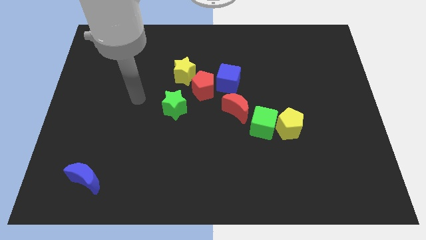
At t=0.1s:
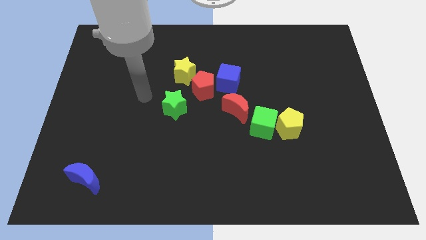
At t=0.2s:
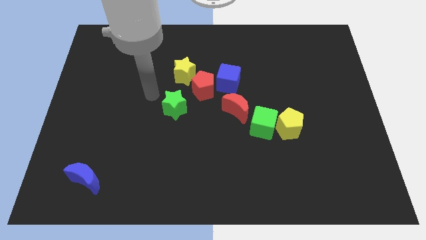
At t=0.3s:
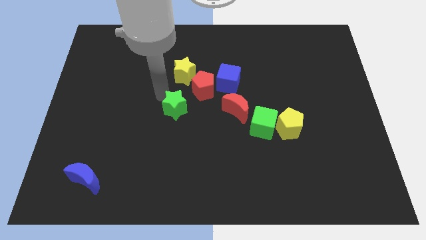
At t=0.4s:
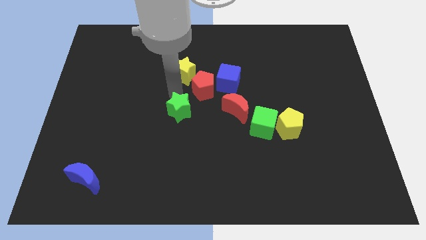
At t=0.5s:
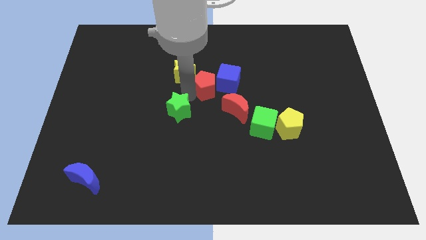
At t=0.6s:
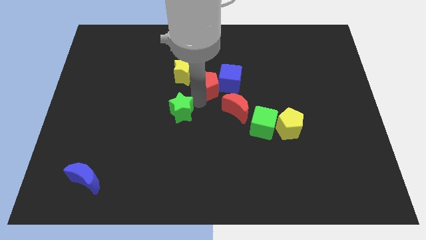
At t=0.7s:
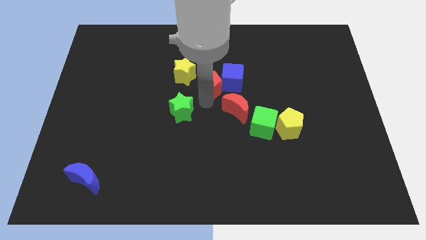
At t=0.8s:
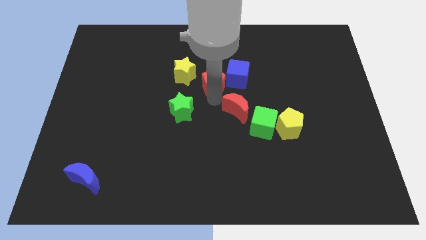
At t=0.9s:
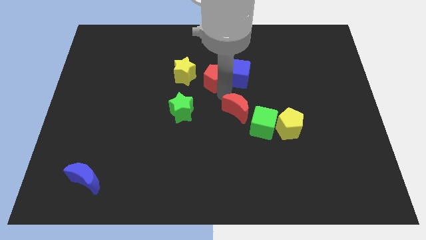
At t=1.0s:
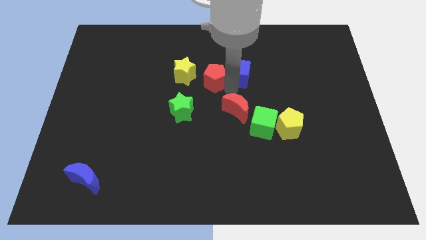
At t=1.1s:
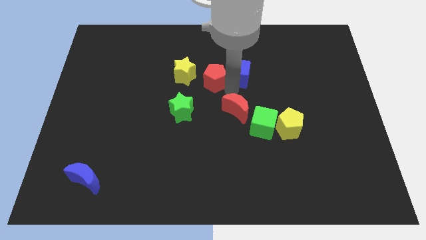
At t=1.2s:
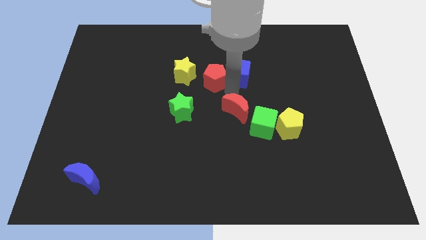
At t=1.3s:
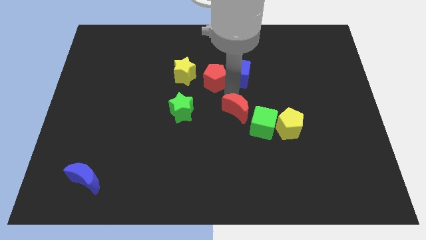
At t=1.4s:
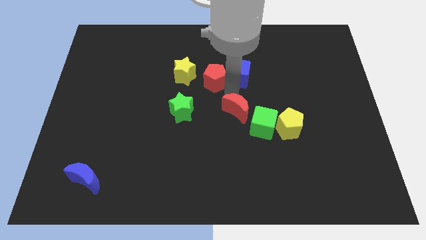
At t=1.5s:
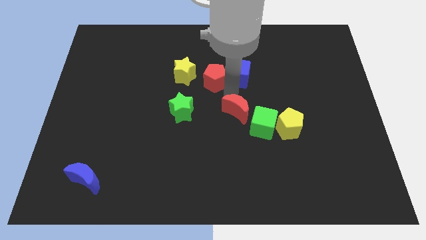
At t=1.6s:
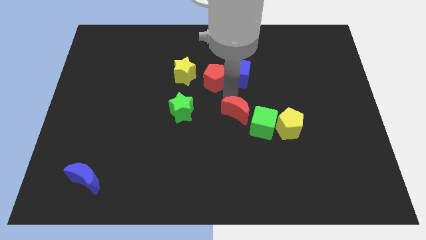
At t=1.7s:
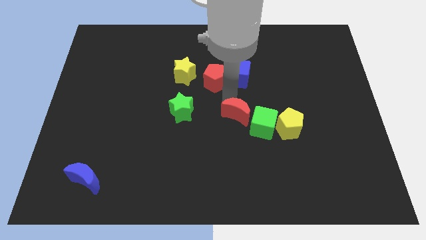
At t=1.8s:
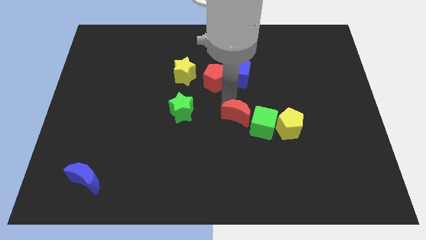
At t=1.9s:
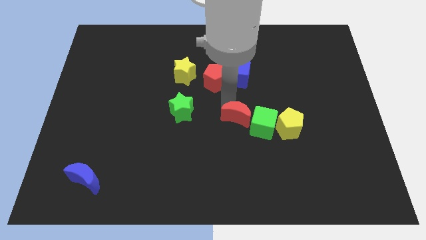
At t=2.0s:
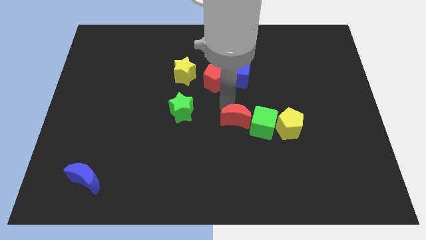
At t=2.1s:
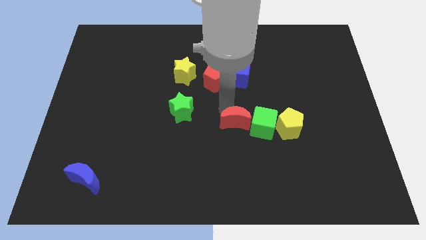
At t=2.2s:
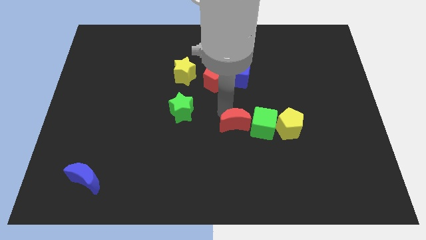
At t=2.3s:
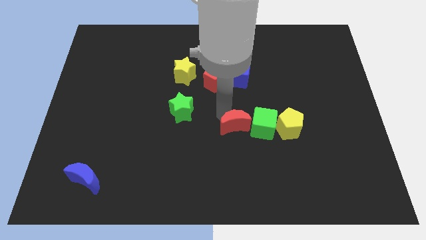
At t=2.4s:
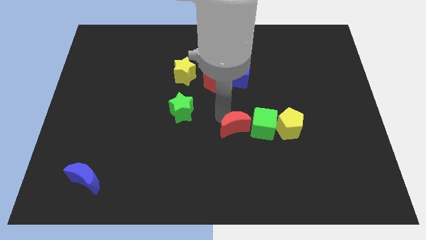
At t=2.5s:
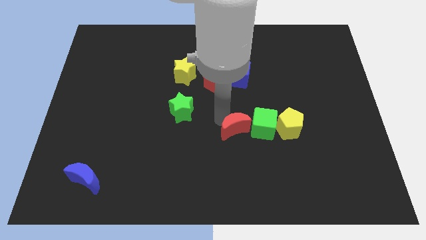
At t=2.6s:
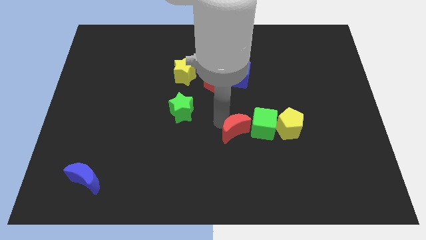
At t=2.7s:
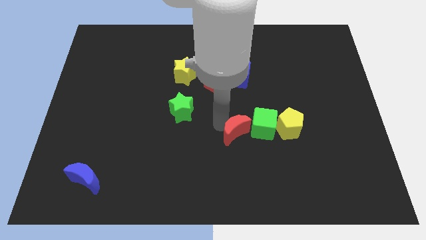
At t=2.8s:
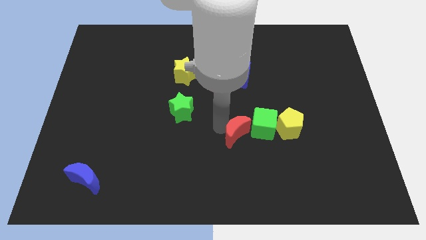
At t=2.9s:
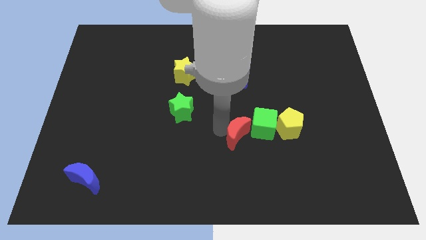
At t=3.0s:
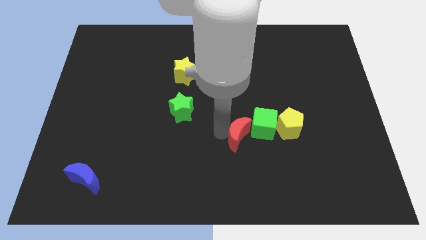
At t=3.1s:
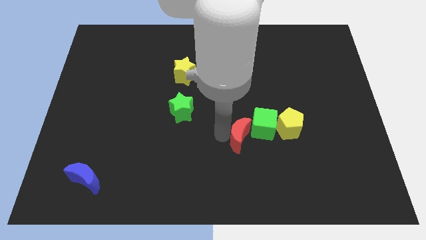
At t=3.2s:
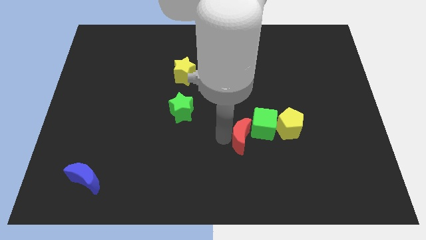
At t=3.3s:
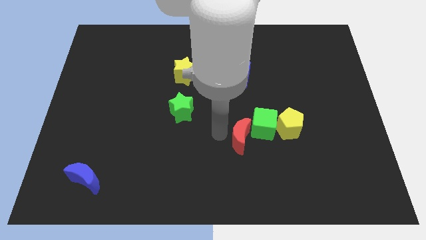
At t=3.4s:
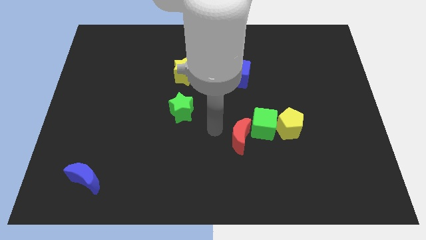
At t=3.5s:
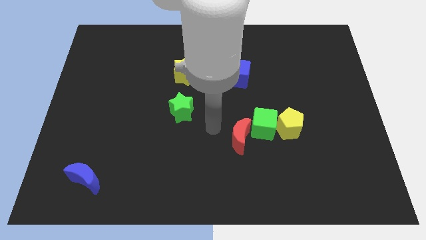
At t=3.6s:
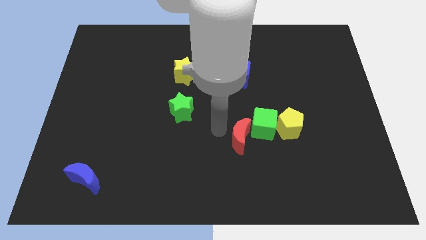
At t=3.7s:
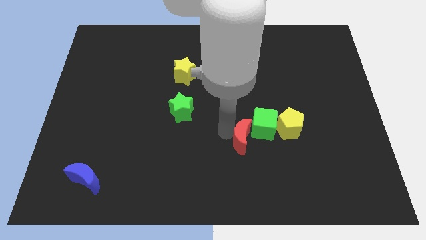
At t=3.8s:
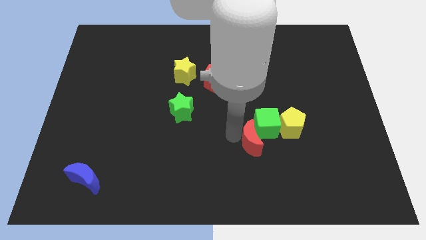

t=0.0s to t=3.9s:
slide the red moon a bit diagonally downwards and to the right

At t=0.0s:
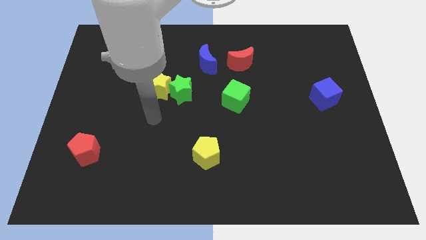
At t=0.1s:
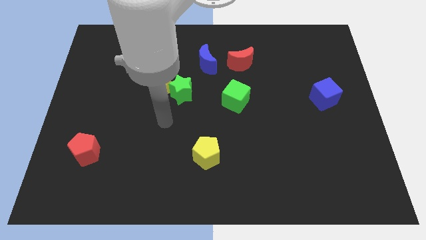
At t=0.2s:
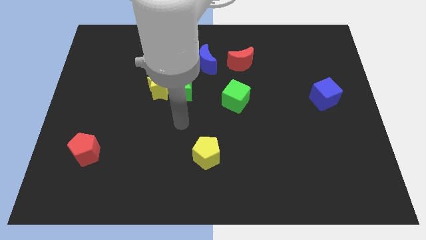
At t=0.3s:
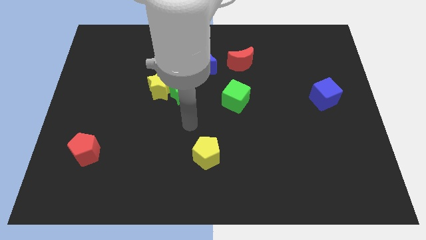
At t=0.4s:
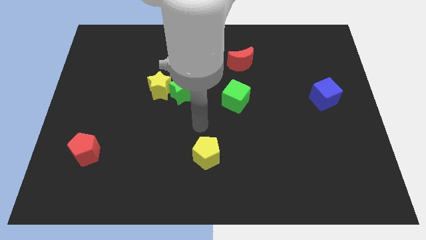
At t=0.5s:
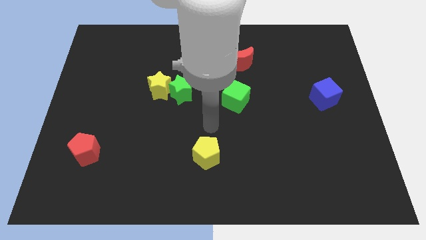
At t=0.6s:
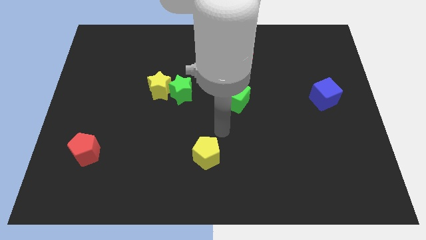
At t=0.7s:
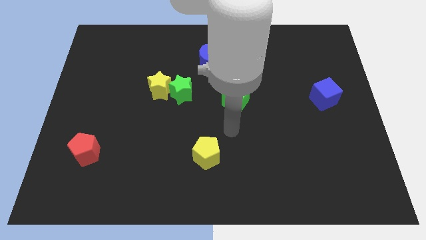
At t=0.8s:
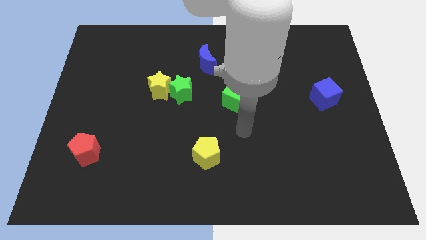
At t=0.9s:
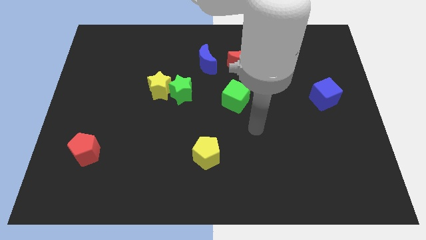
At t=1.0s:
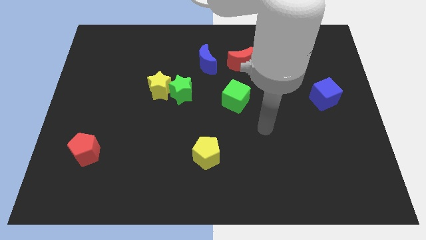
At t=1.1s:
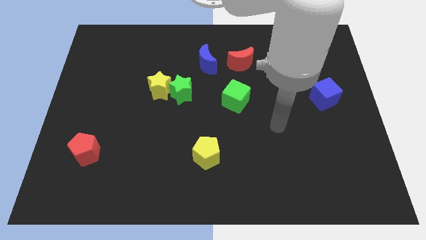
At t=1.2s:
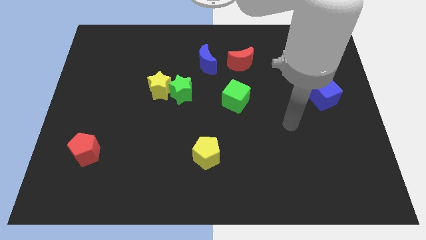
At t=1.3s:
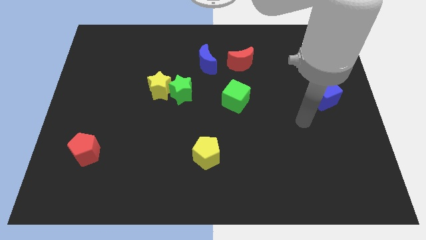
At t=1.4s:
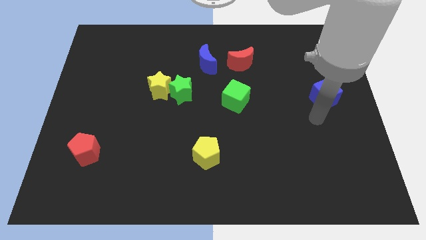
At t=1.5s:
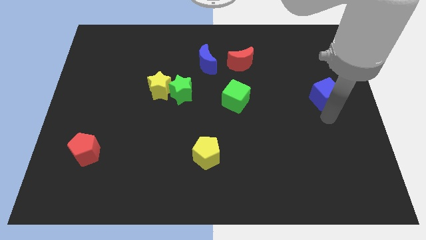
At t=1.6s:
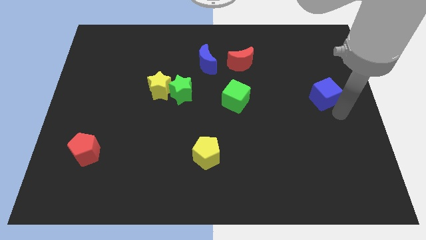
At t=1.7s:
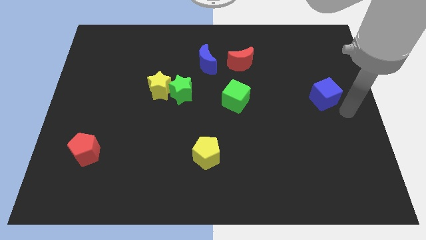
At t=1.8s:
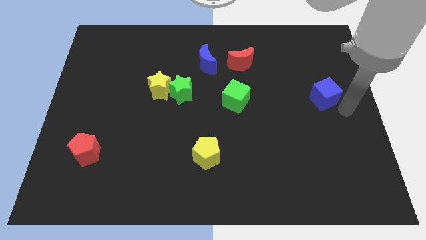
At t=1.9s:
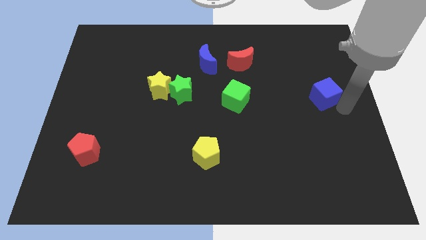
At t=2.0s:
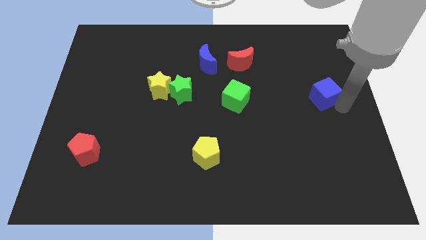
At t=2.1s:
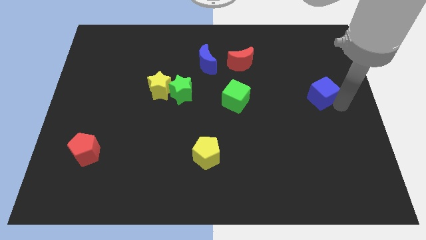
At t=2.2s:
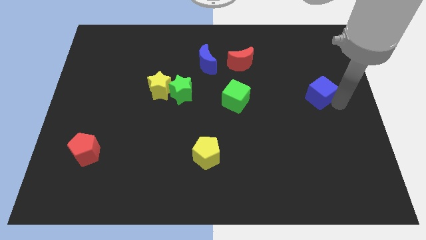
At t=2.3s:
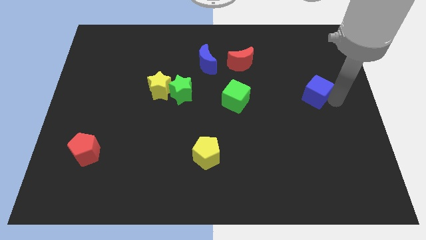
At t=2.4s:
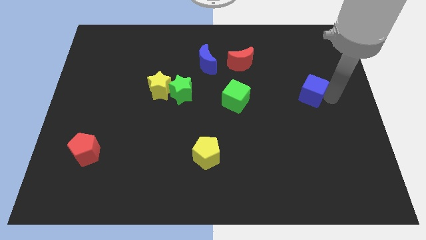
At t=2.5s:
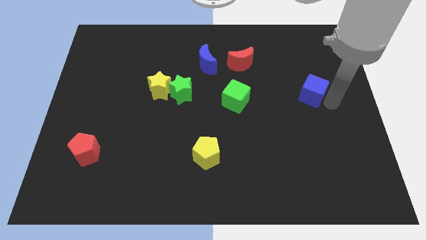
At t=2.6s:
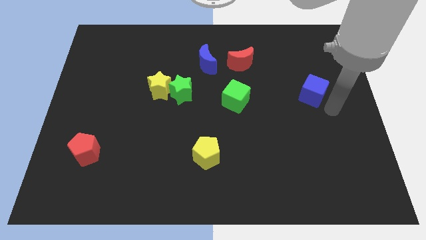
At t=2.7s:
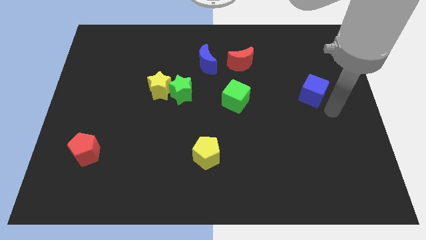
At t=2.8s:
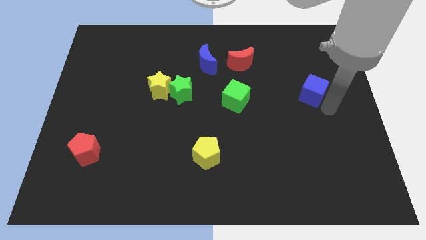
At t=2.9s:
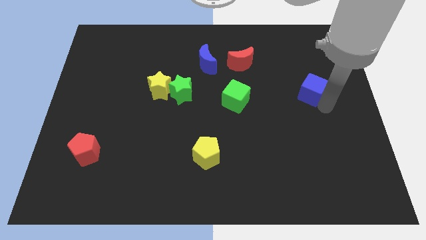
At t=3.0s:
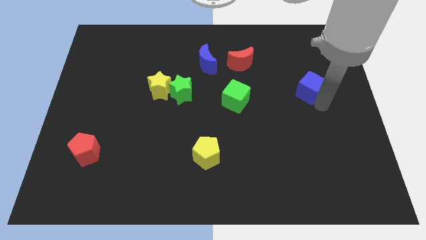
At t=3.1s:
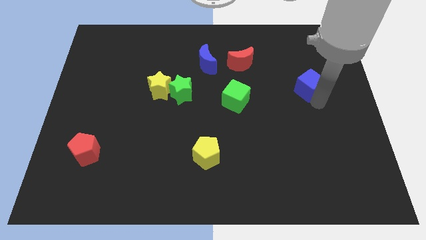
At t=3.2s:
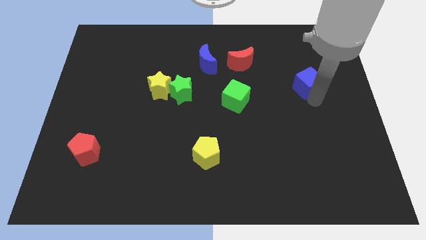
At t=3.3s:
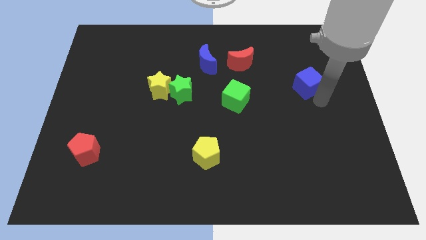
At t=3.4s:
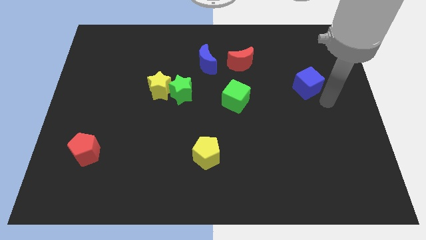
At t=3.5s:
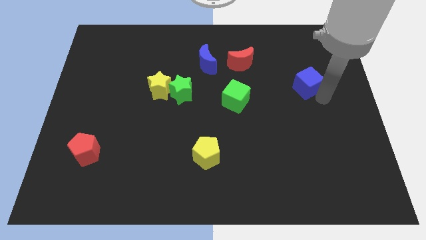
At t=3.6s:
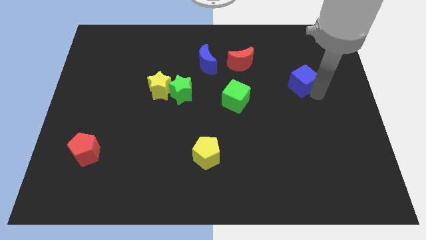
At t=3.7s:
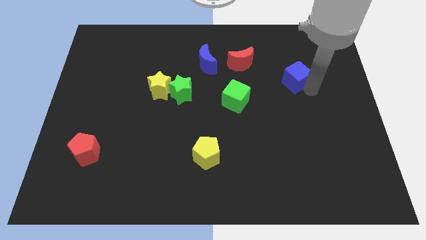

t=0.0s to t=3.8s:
slightly push the blue cube upwards and then left

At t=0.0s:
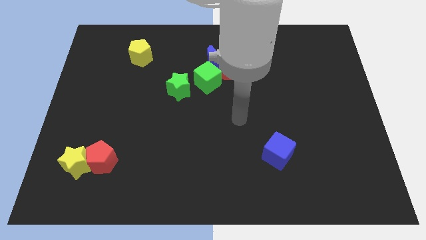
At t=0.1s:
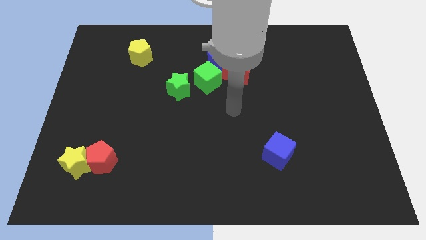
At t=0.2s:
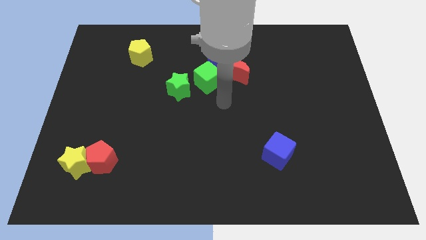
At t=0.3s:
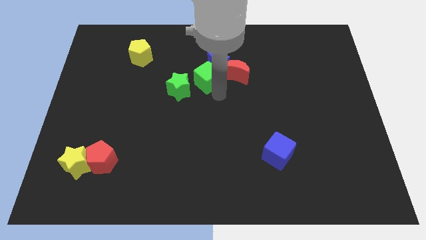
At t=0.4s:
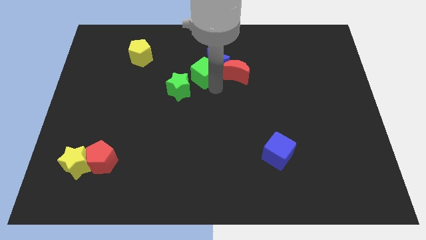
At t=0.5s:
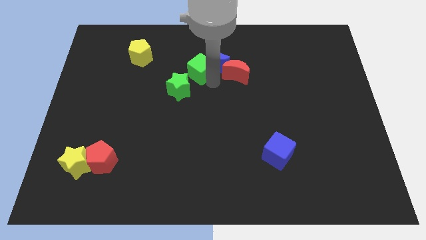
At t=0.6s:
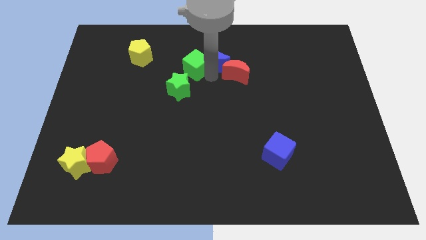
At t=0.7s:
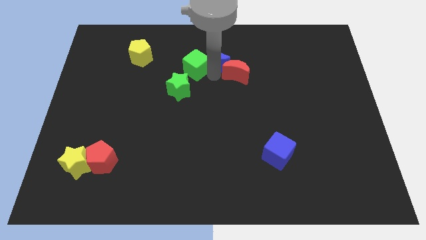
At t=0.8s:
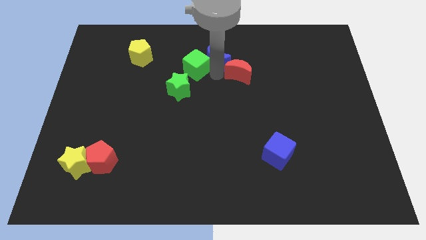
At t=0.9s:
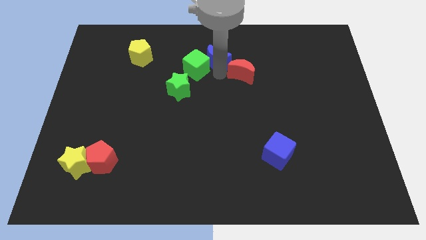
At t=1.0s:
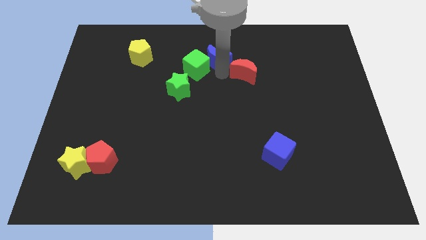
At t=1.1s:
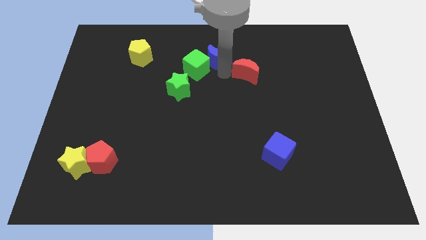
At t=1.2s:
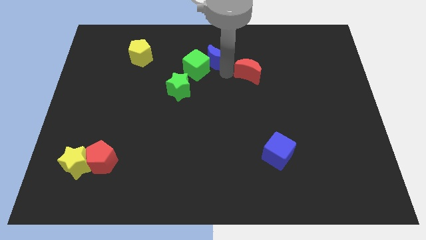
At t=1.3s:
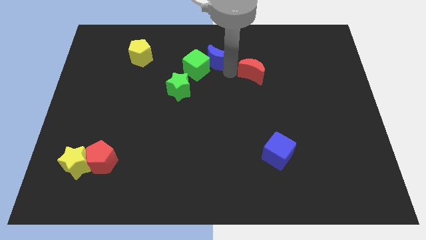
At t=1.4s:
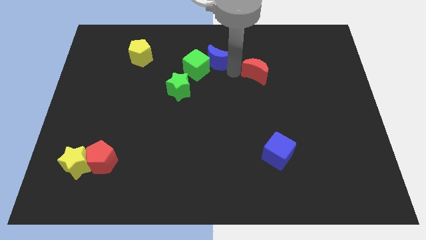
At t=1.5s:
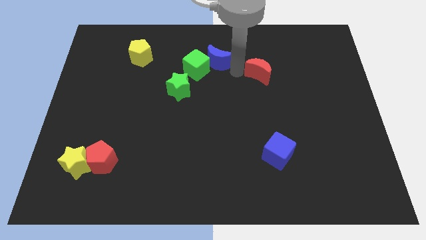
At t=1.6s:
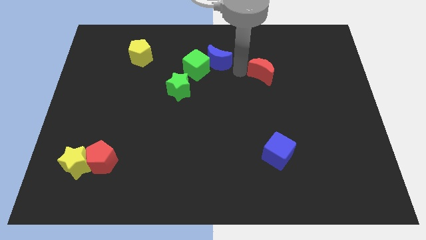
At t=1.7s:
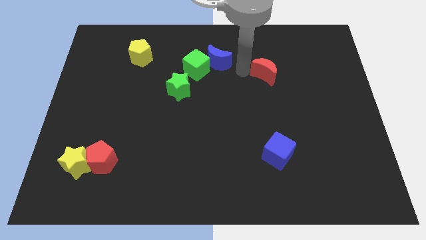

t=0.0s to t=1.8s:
push the red moon right a little bit
